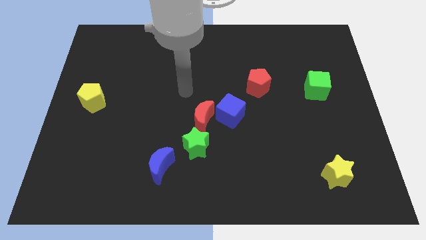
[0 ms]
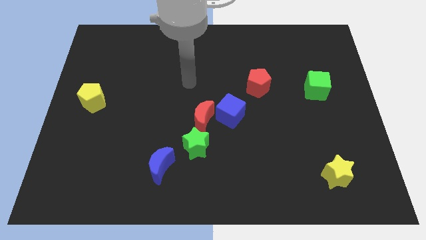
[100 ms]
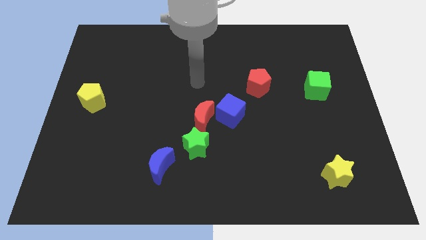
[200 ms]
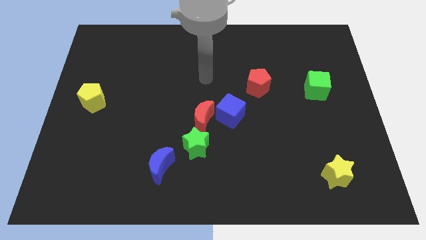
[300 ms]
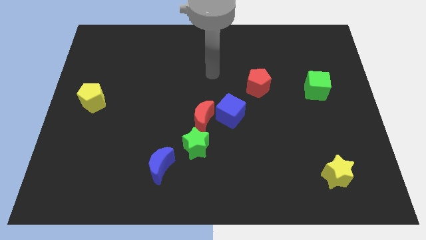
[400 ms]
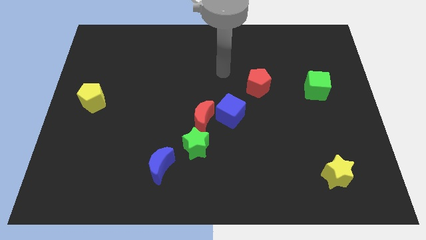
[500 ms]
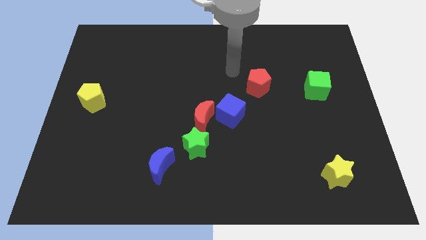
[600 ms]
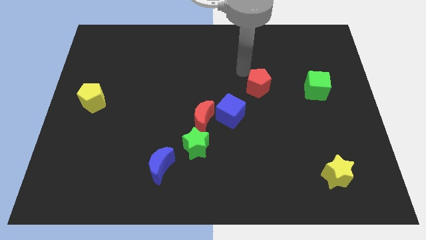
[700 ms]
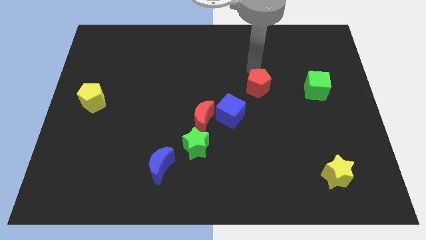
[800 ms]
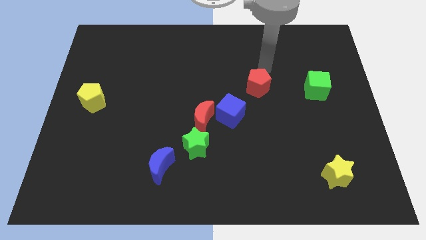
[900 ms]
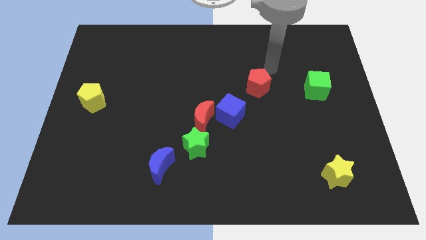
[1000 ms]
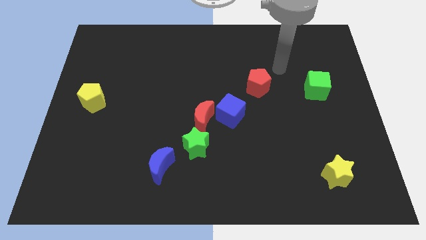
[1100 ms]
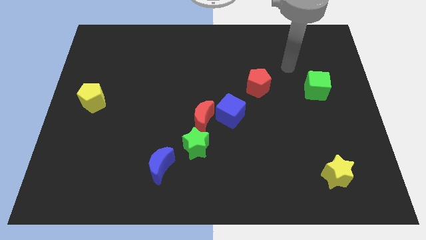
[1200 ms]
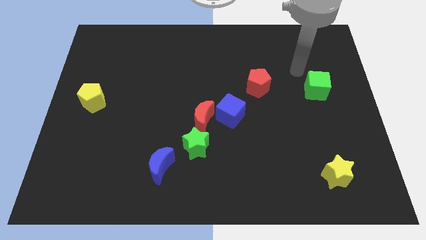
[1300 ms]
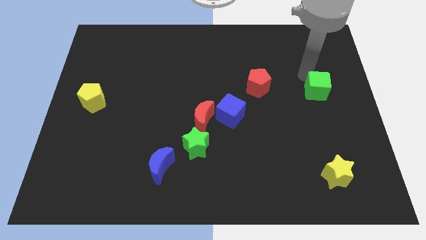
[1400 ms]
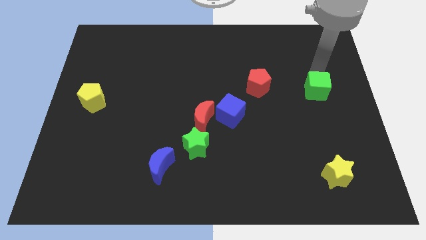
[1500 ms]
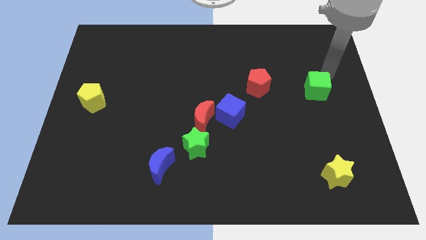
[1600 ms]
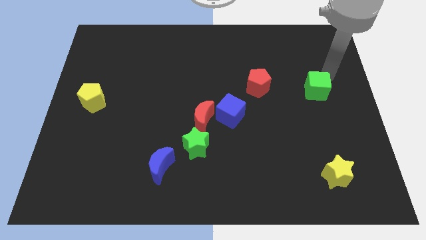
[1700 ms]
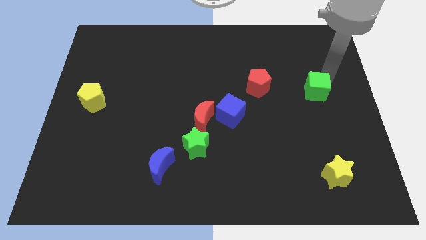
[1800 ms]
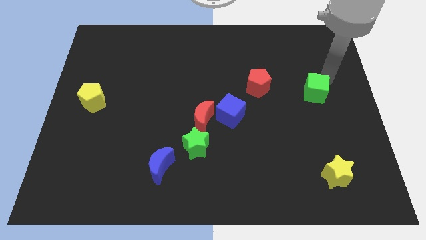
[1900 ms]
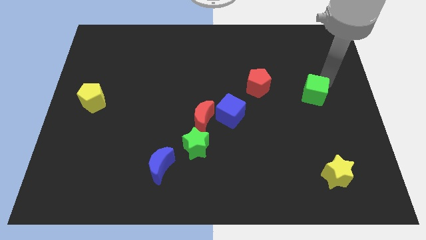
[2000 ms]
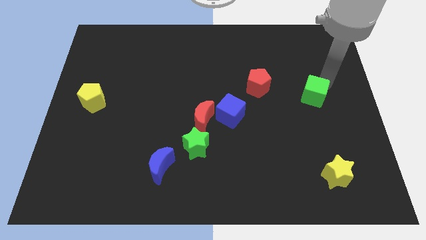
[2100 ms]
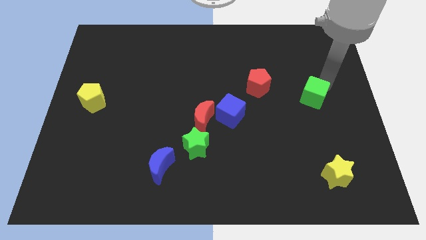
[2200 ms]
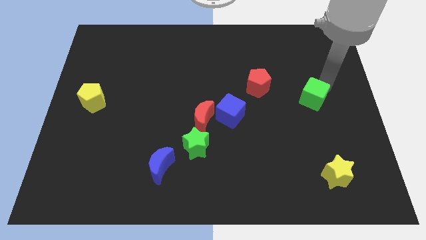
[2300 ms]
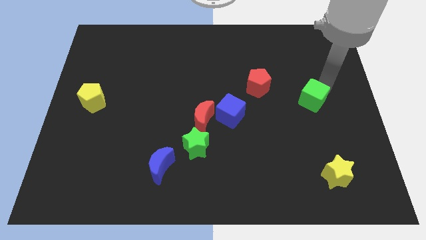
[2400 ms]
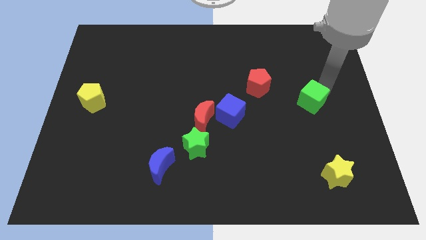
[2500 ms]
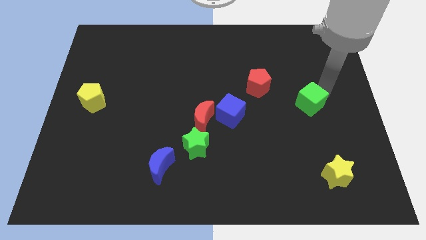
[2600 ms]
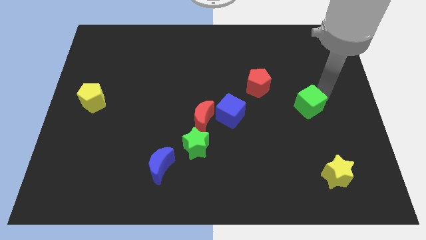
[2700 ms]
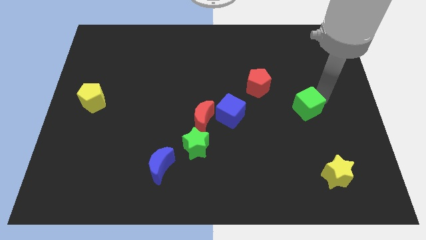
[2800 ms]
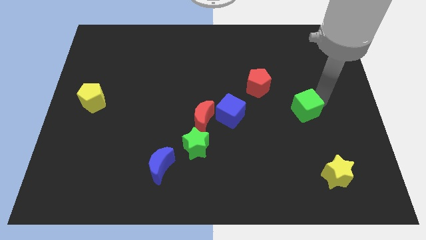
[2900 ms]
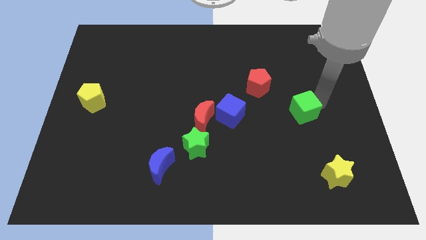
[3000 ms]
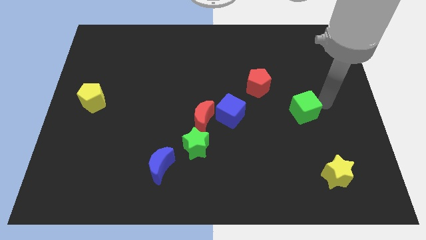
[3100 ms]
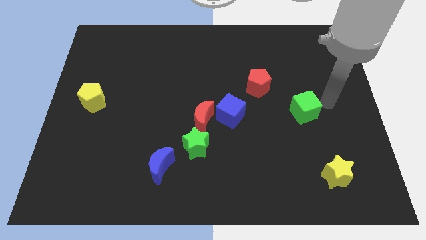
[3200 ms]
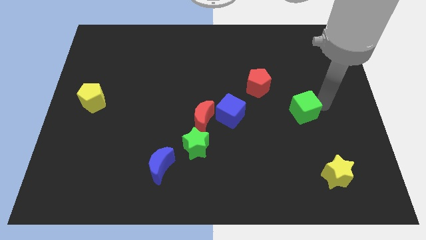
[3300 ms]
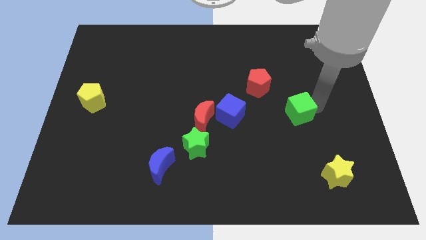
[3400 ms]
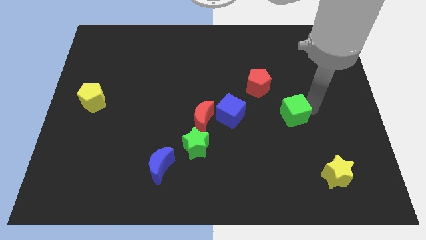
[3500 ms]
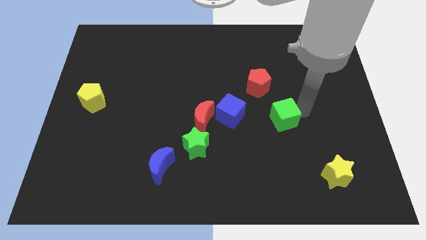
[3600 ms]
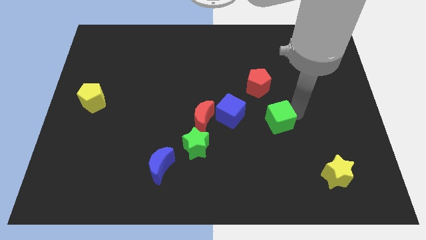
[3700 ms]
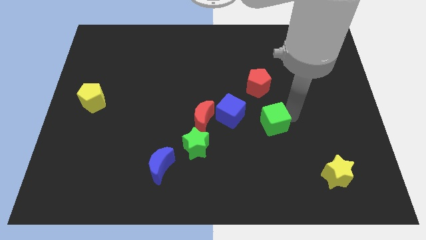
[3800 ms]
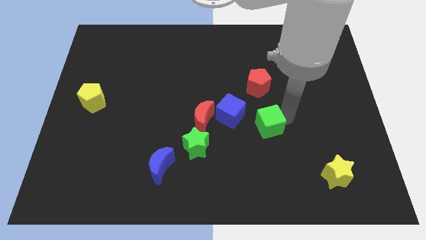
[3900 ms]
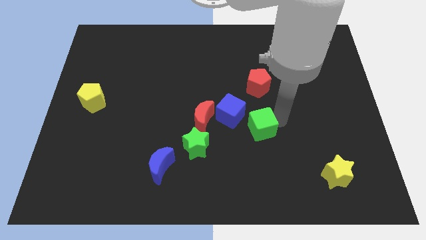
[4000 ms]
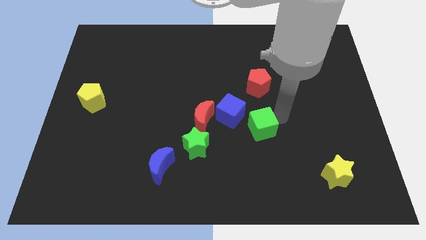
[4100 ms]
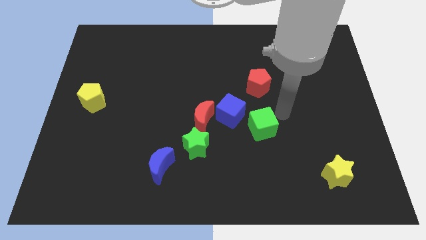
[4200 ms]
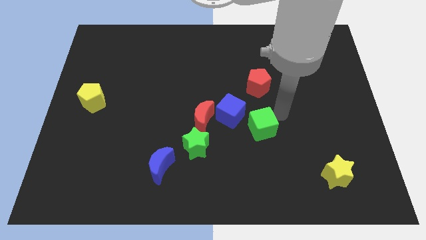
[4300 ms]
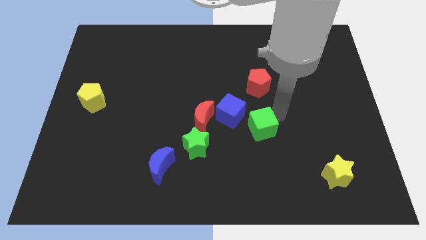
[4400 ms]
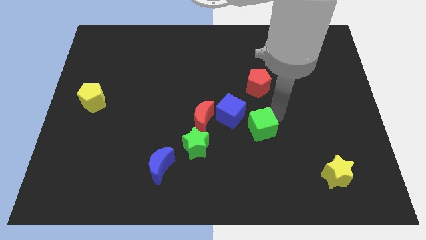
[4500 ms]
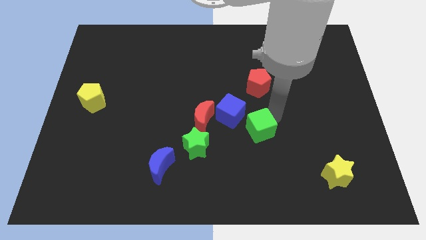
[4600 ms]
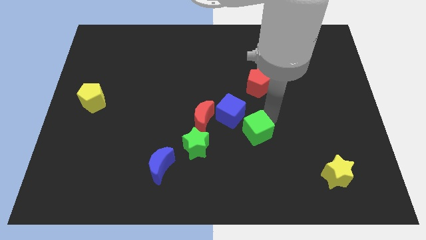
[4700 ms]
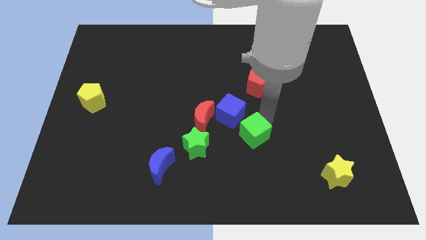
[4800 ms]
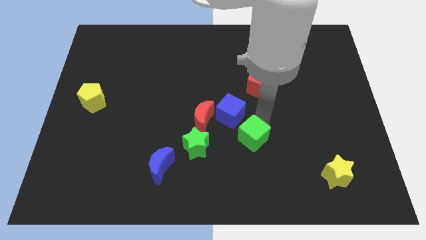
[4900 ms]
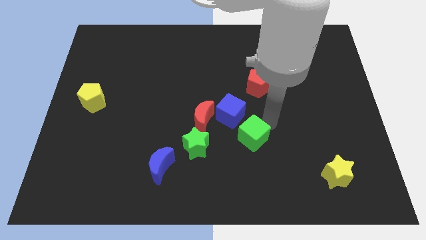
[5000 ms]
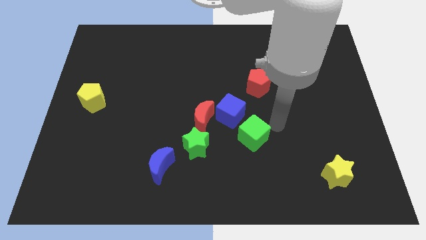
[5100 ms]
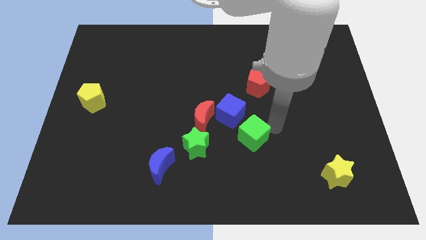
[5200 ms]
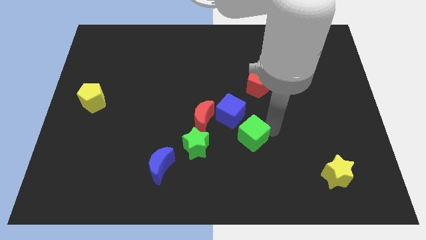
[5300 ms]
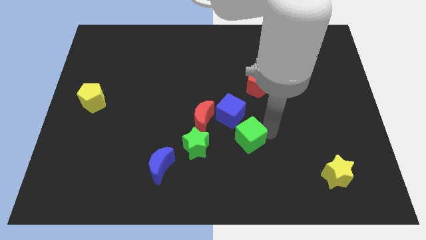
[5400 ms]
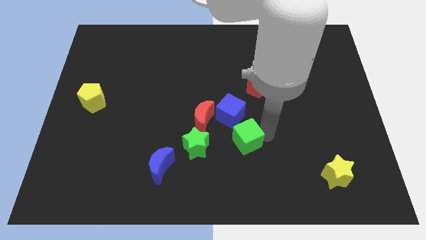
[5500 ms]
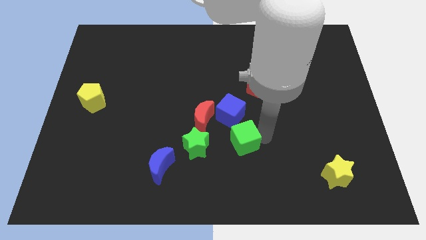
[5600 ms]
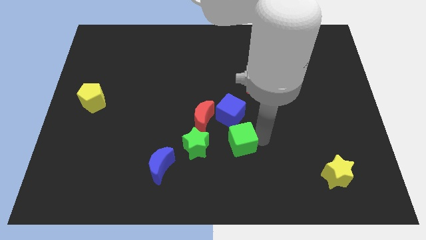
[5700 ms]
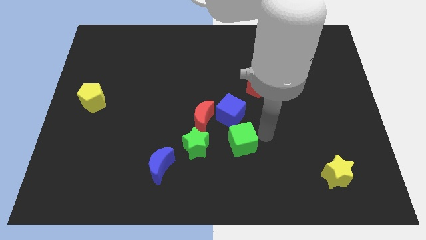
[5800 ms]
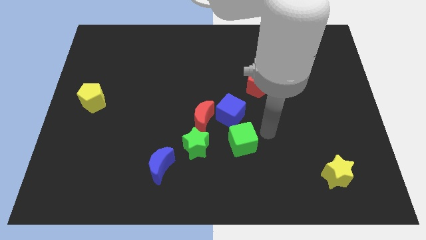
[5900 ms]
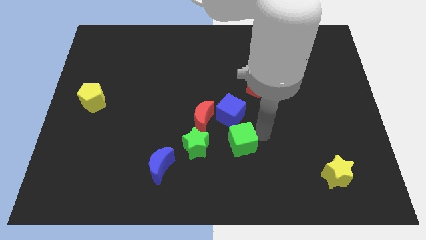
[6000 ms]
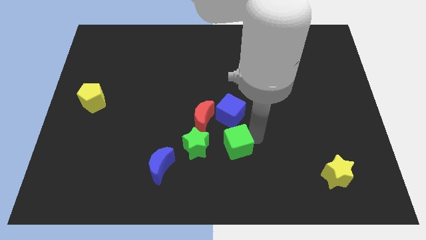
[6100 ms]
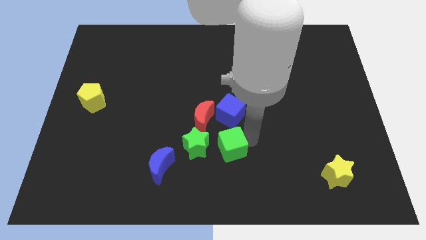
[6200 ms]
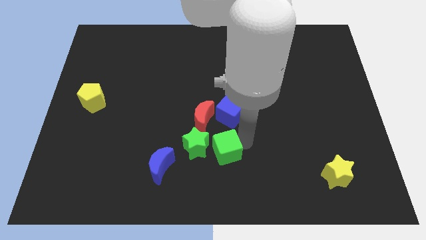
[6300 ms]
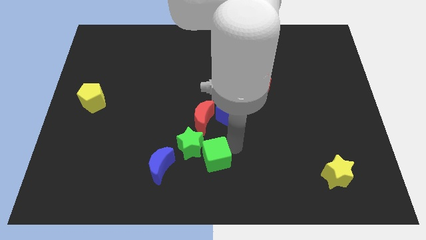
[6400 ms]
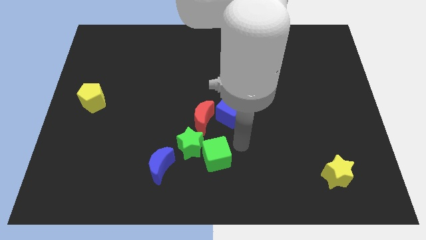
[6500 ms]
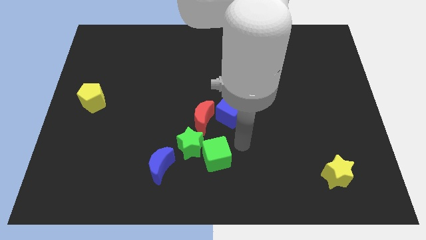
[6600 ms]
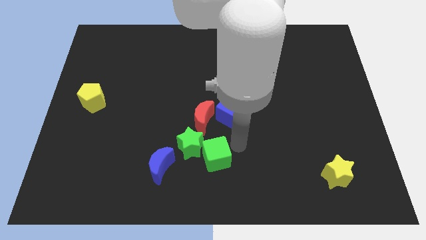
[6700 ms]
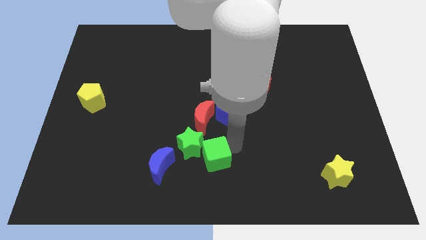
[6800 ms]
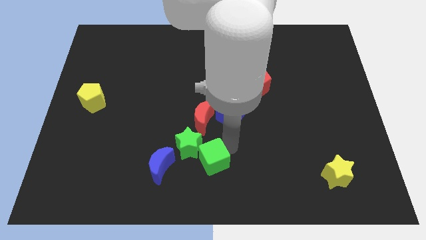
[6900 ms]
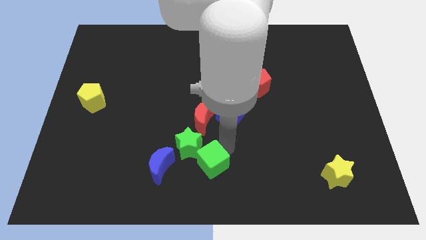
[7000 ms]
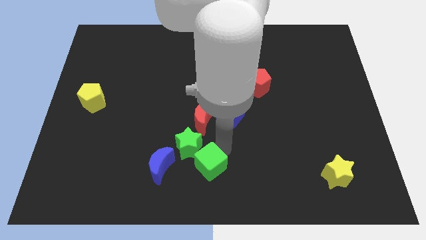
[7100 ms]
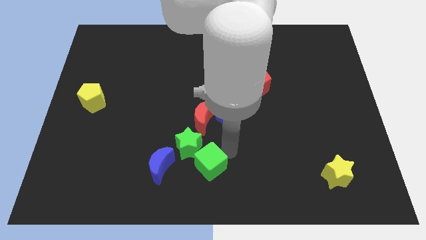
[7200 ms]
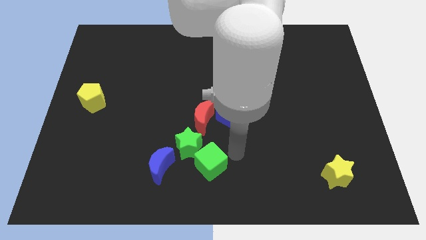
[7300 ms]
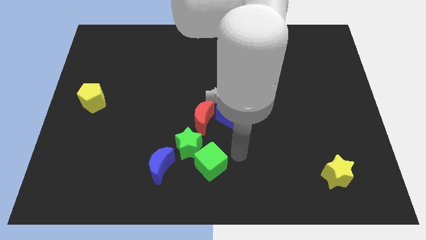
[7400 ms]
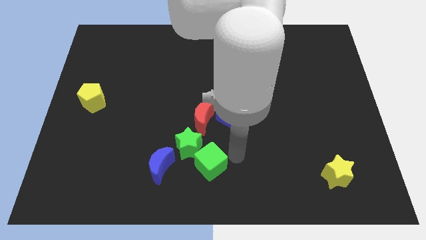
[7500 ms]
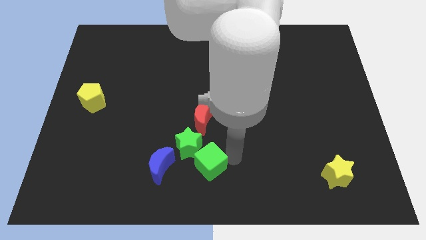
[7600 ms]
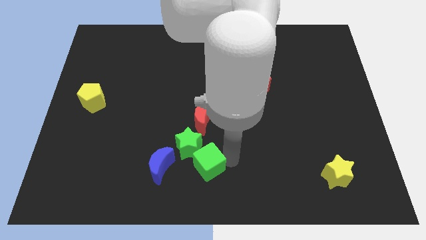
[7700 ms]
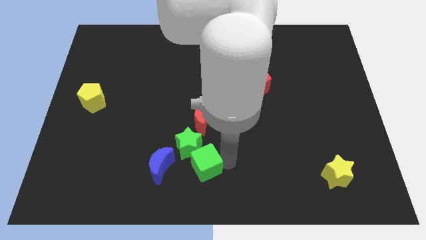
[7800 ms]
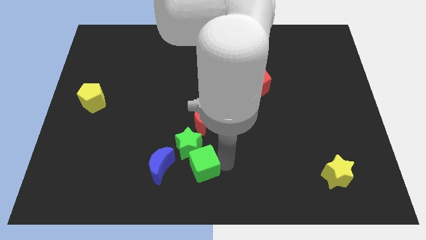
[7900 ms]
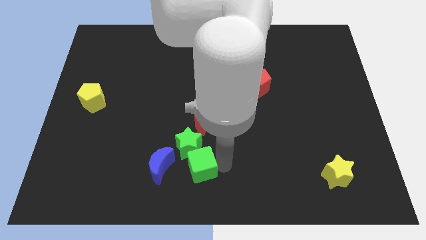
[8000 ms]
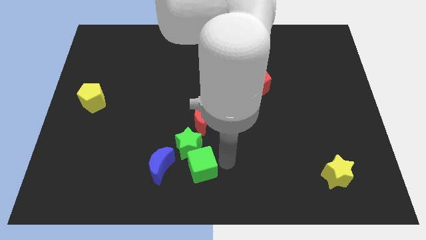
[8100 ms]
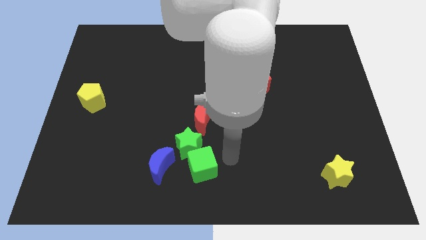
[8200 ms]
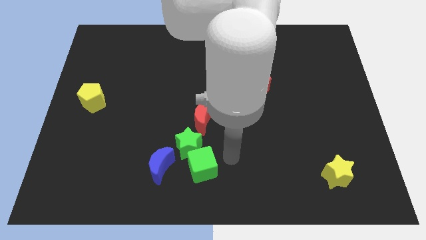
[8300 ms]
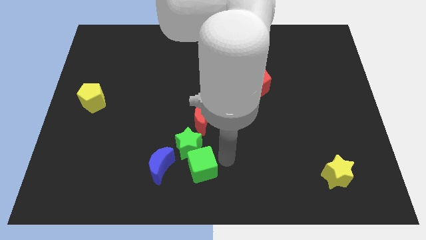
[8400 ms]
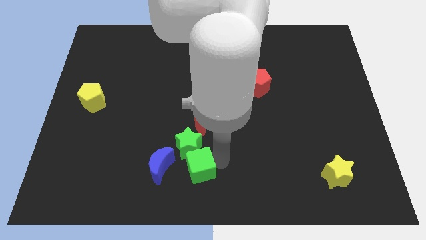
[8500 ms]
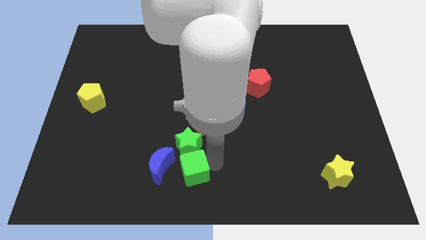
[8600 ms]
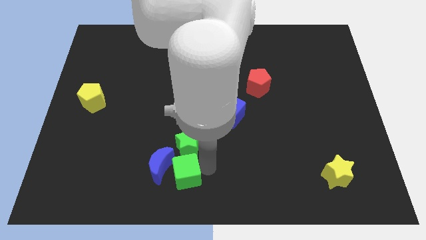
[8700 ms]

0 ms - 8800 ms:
slide the green cube towards the blue moon
